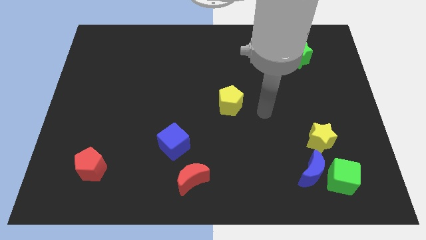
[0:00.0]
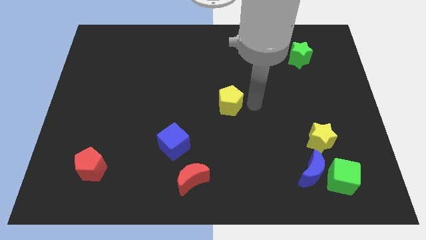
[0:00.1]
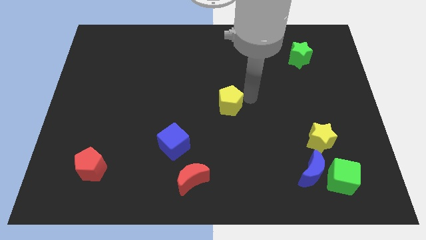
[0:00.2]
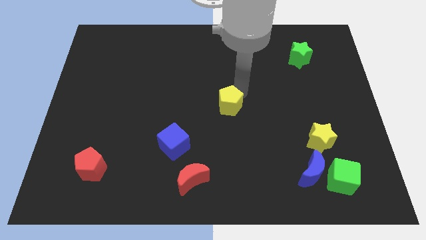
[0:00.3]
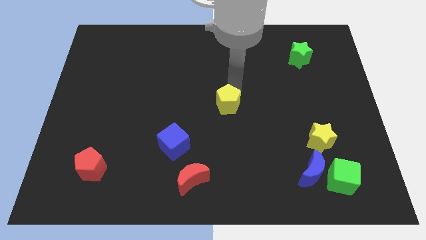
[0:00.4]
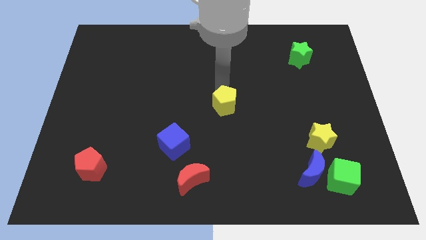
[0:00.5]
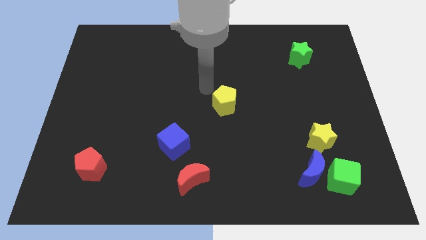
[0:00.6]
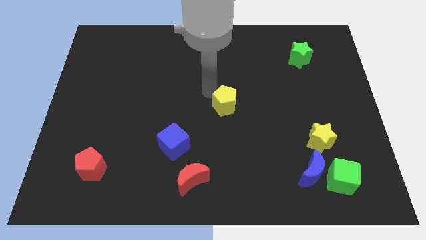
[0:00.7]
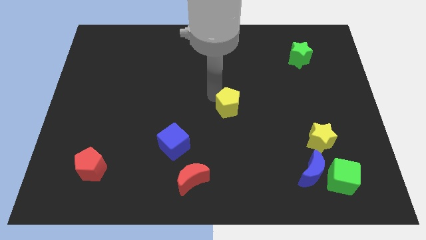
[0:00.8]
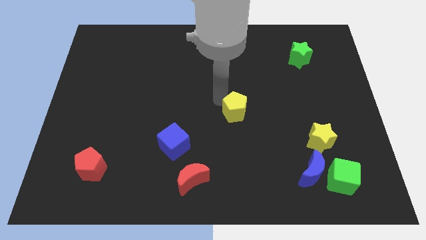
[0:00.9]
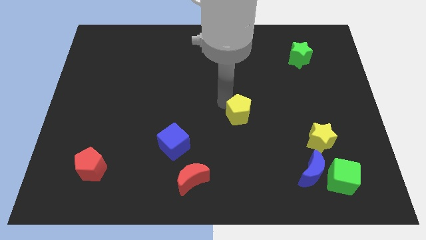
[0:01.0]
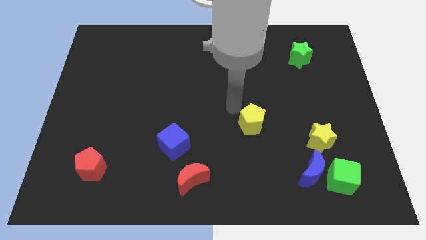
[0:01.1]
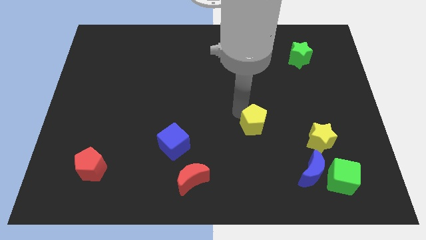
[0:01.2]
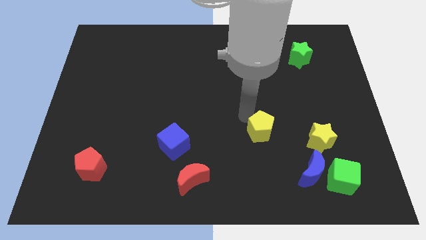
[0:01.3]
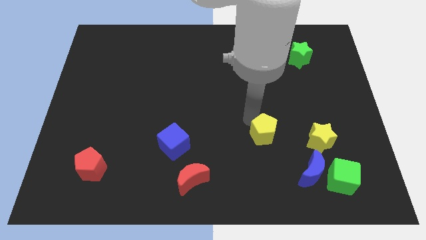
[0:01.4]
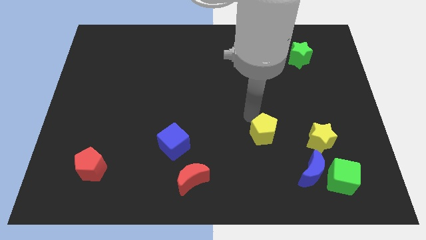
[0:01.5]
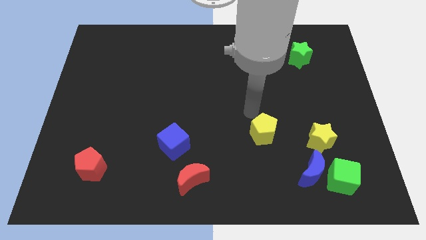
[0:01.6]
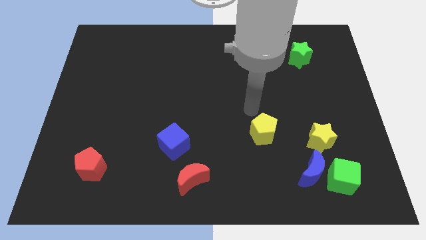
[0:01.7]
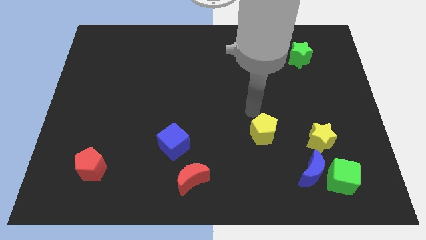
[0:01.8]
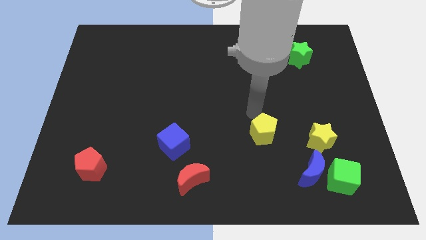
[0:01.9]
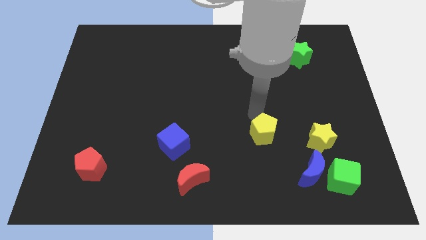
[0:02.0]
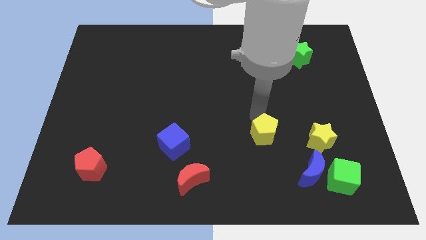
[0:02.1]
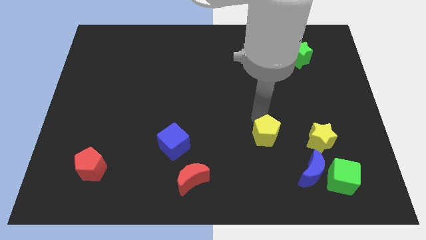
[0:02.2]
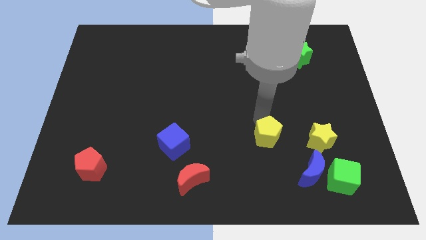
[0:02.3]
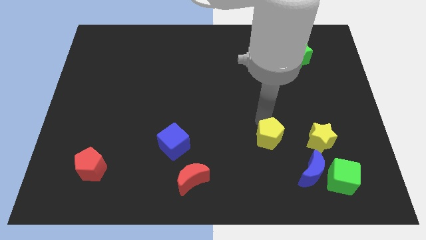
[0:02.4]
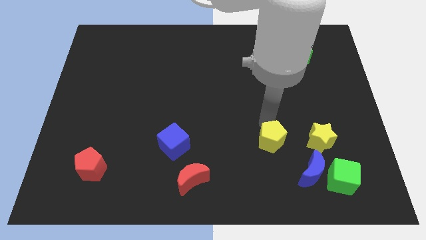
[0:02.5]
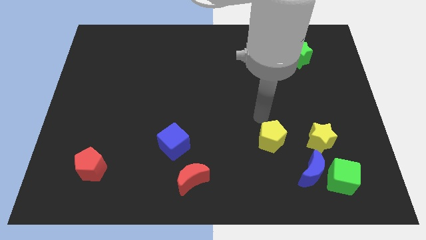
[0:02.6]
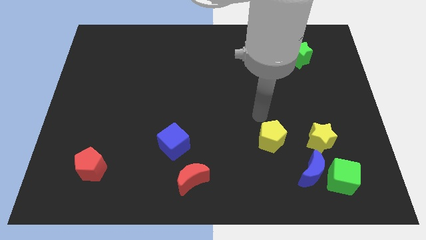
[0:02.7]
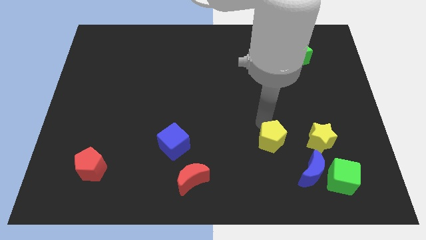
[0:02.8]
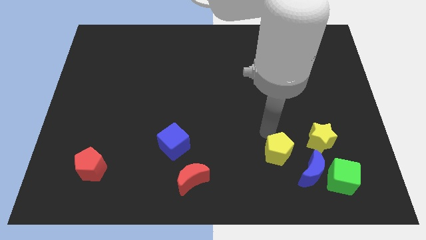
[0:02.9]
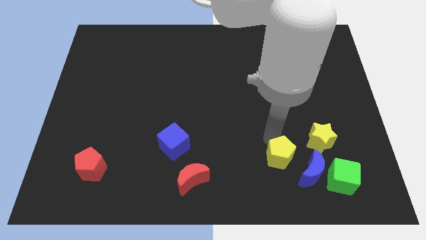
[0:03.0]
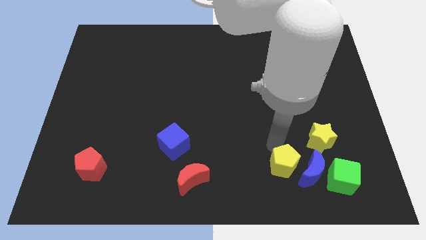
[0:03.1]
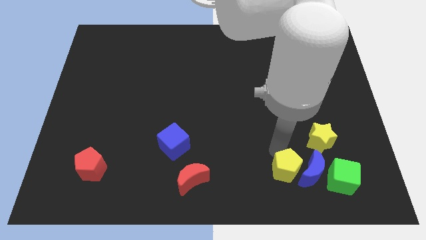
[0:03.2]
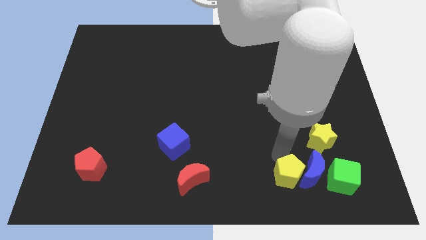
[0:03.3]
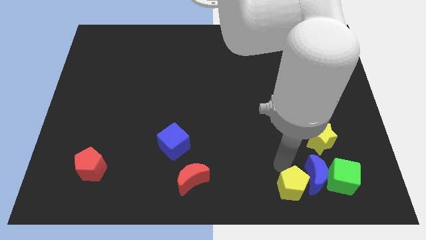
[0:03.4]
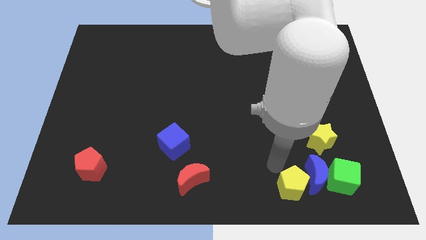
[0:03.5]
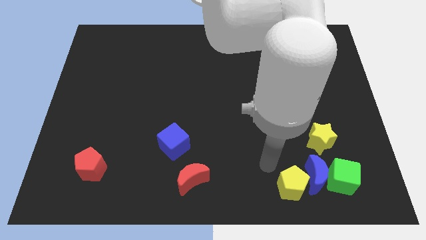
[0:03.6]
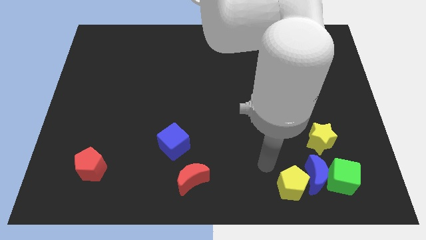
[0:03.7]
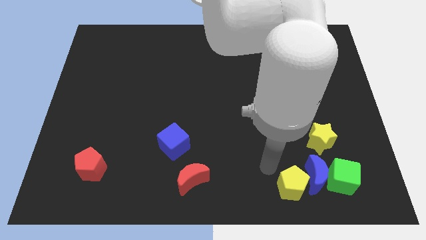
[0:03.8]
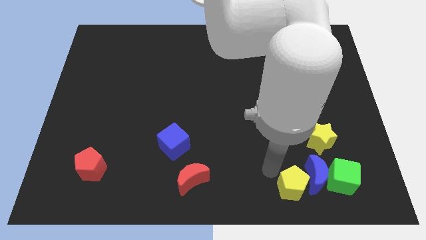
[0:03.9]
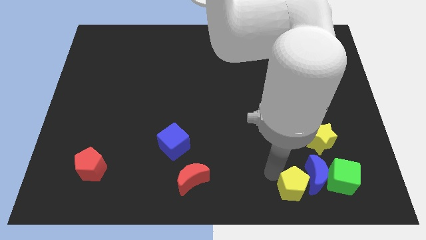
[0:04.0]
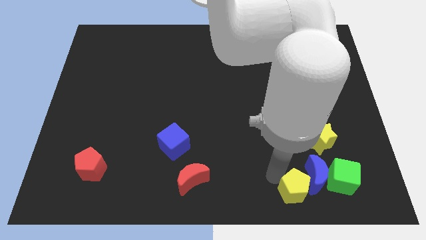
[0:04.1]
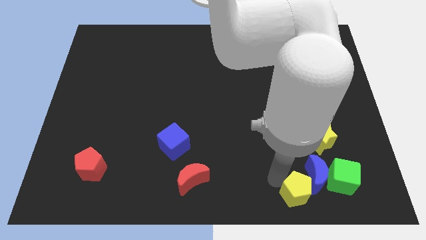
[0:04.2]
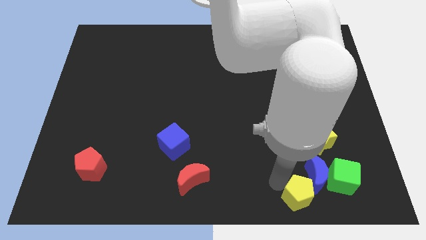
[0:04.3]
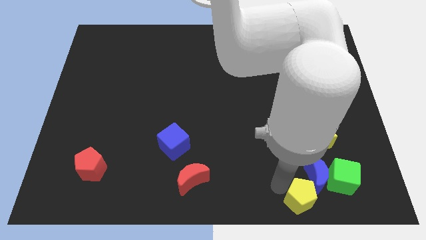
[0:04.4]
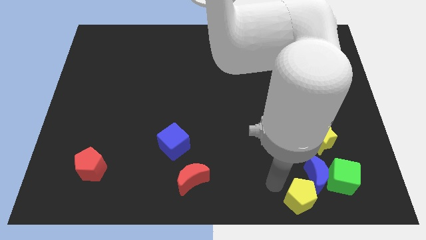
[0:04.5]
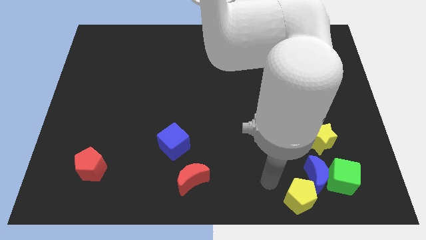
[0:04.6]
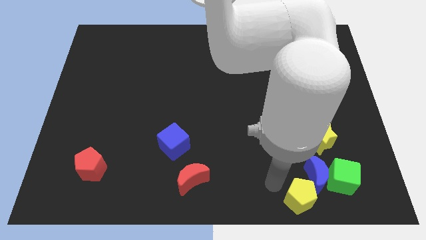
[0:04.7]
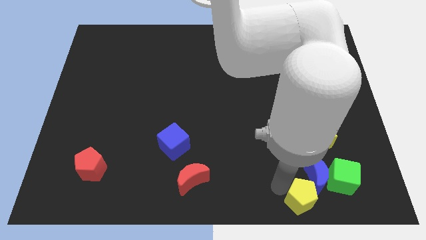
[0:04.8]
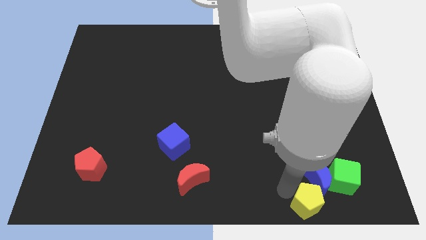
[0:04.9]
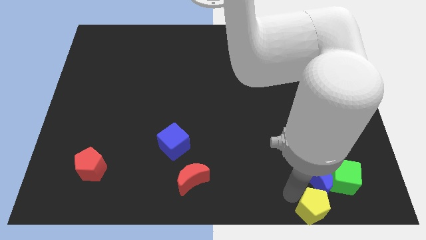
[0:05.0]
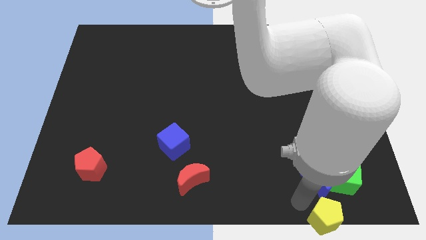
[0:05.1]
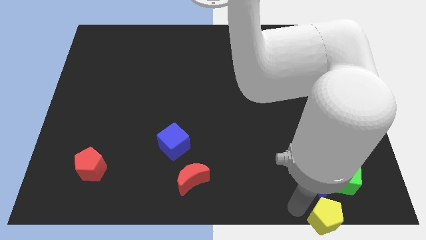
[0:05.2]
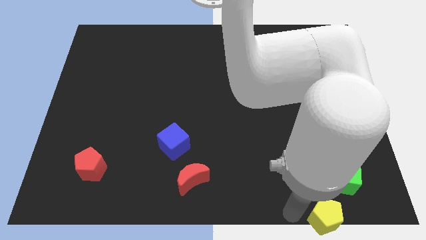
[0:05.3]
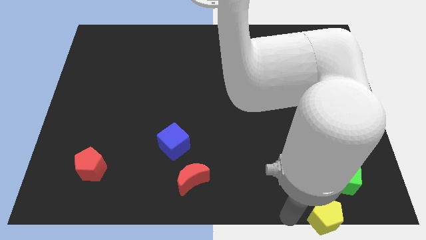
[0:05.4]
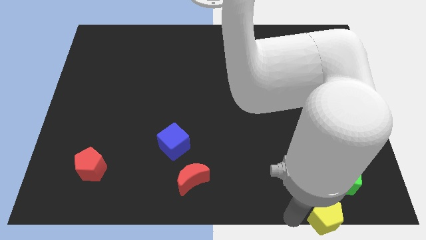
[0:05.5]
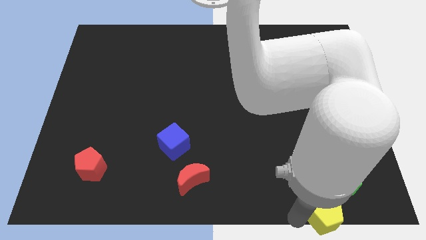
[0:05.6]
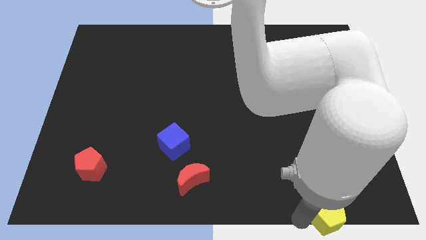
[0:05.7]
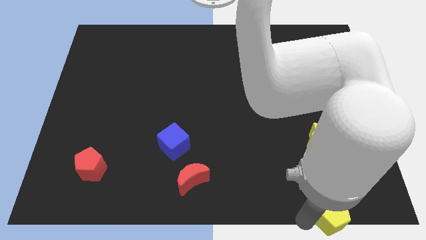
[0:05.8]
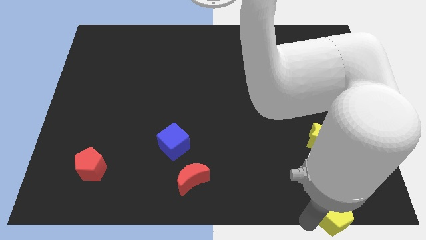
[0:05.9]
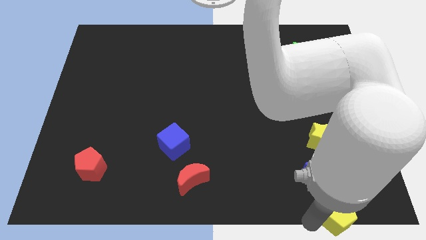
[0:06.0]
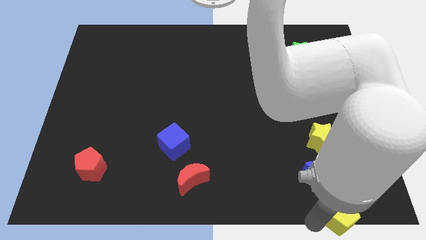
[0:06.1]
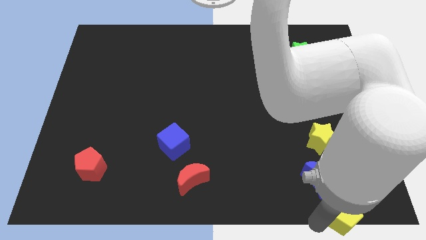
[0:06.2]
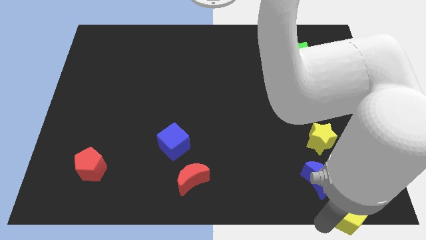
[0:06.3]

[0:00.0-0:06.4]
move the yellow pentagon to the bottom right corner

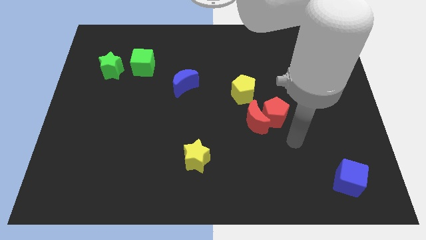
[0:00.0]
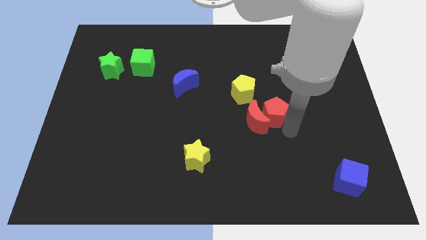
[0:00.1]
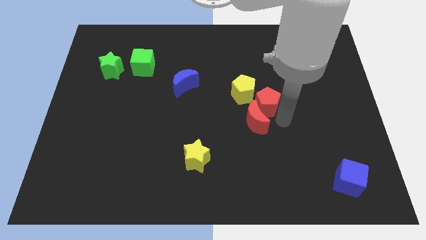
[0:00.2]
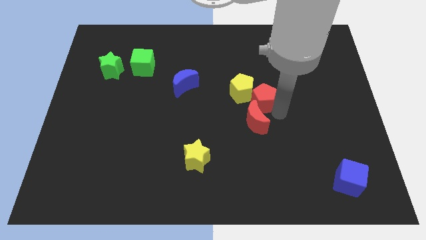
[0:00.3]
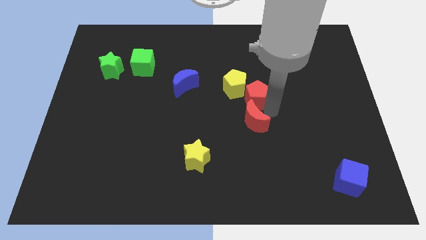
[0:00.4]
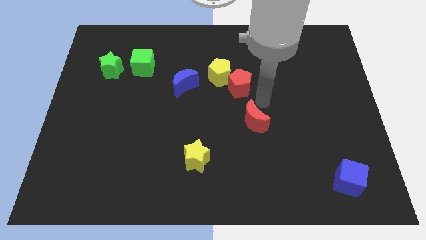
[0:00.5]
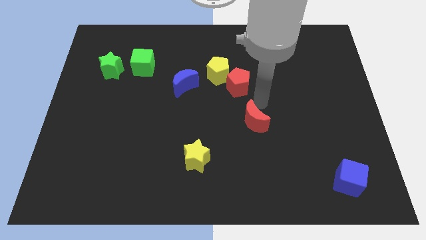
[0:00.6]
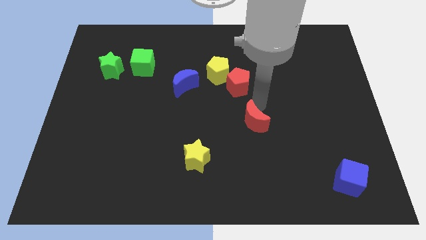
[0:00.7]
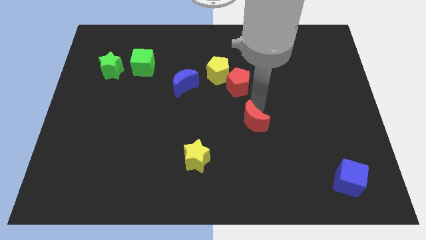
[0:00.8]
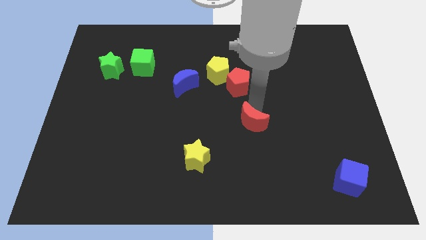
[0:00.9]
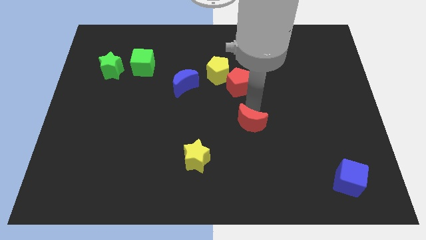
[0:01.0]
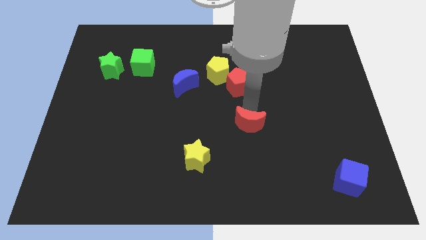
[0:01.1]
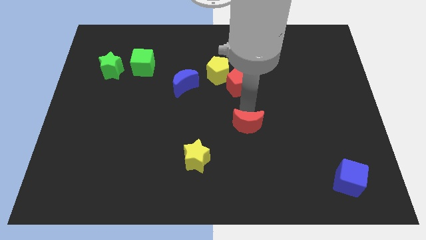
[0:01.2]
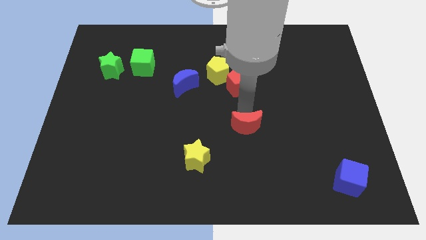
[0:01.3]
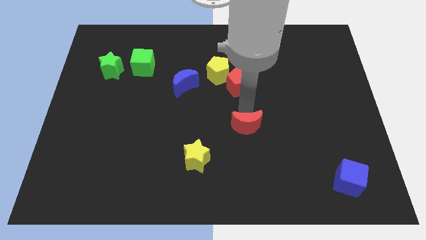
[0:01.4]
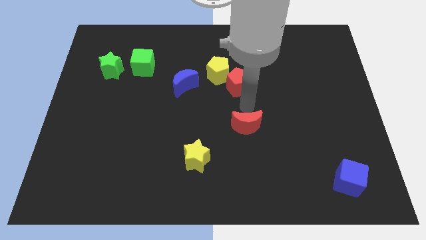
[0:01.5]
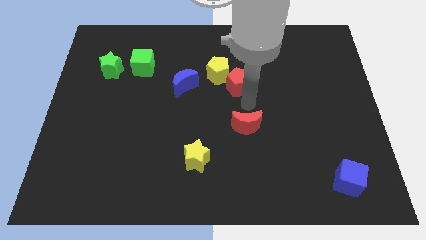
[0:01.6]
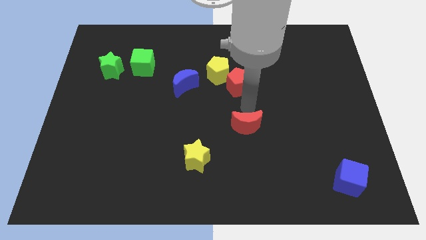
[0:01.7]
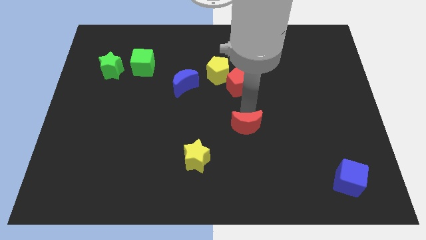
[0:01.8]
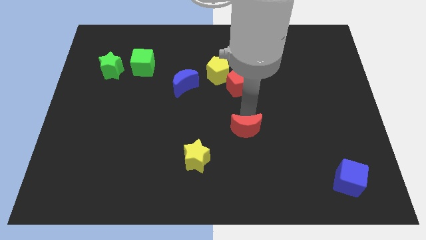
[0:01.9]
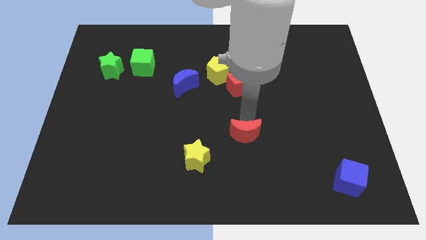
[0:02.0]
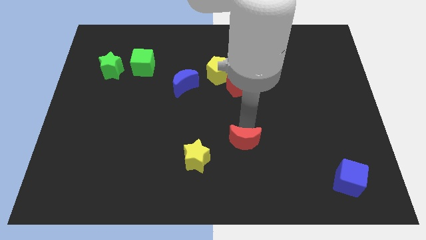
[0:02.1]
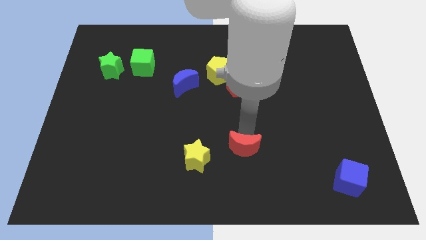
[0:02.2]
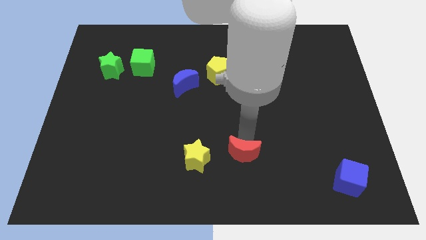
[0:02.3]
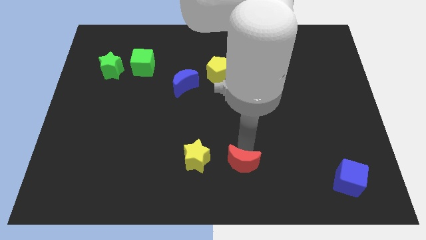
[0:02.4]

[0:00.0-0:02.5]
push the red moon to the bottom side
